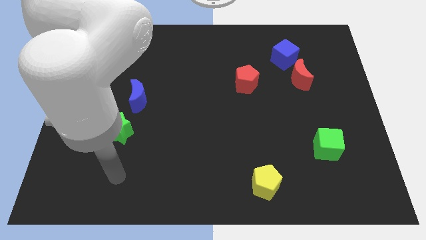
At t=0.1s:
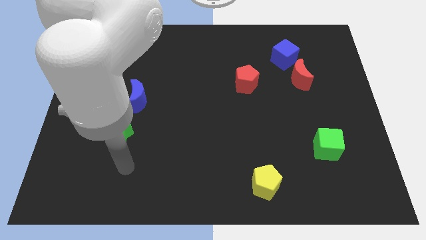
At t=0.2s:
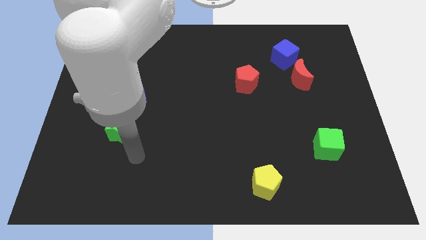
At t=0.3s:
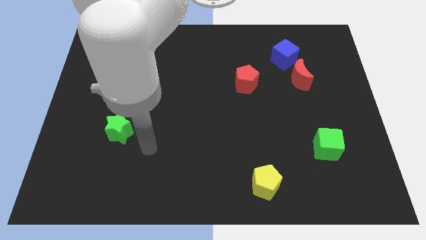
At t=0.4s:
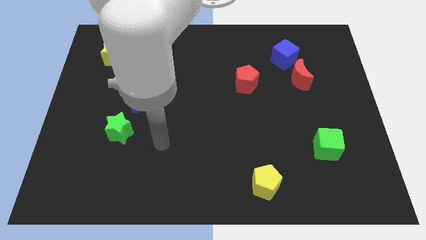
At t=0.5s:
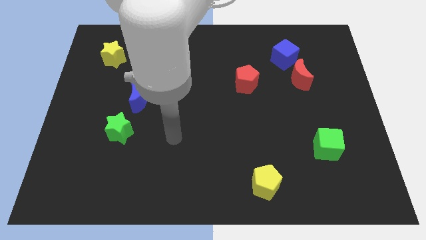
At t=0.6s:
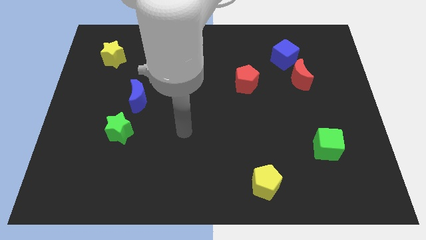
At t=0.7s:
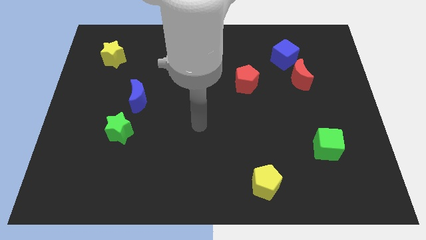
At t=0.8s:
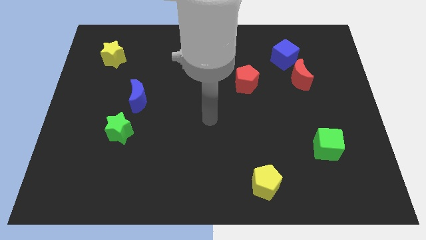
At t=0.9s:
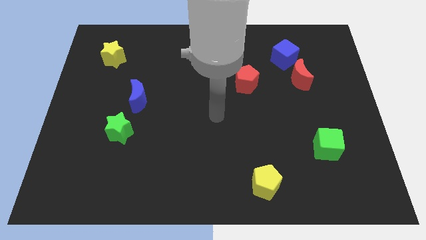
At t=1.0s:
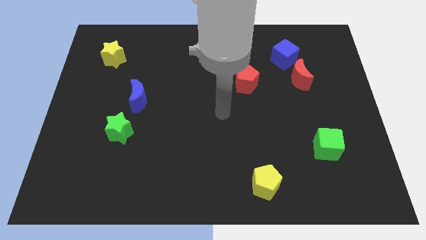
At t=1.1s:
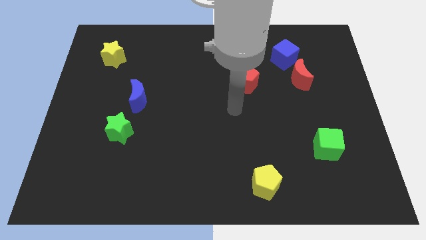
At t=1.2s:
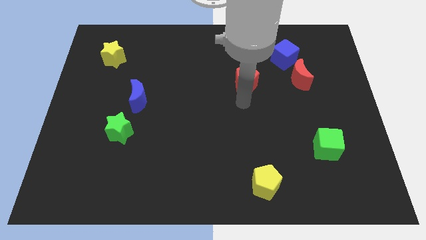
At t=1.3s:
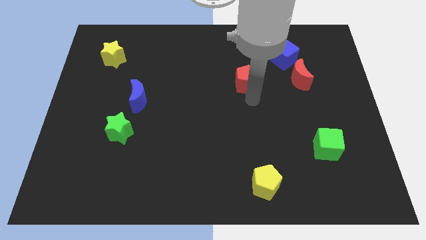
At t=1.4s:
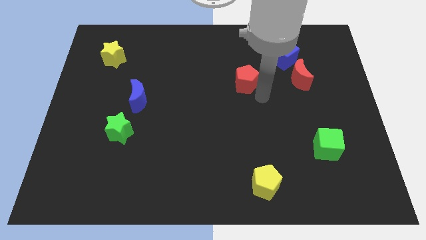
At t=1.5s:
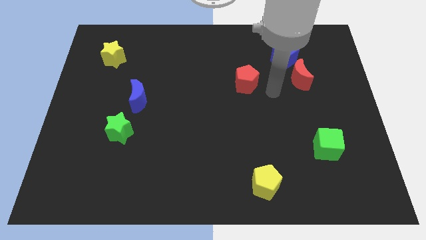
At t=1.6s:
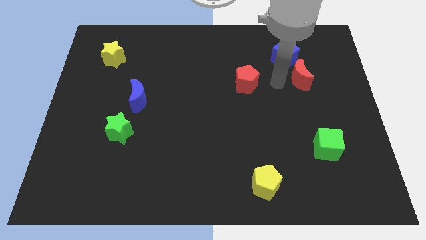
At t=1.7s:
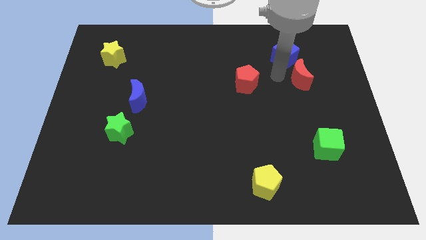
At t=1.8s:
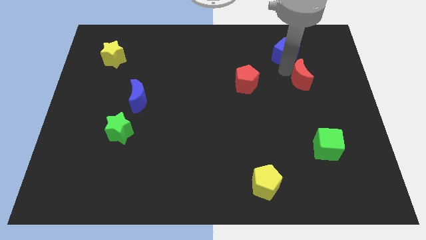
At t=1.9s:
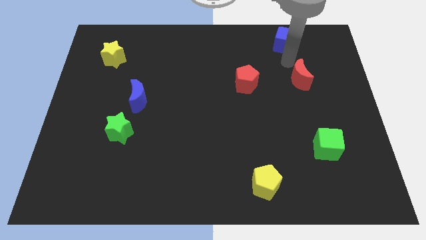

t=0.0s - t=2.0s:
move the red moon away from the blue cube

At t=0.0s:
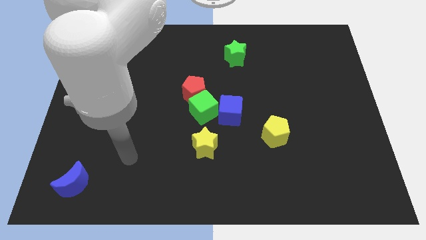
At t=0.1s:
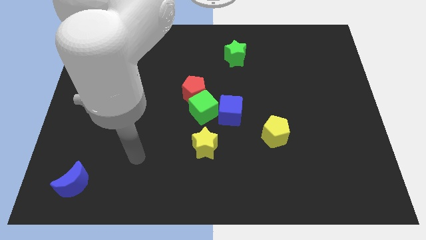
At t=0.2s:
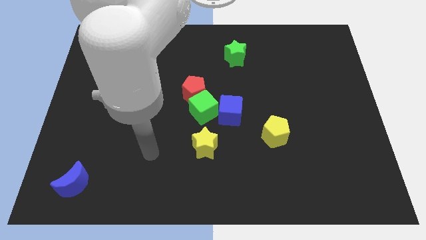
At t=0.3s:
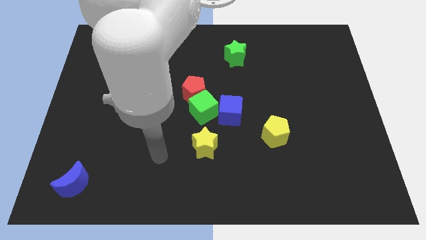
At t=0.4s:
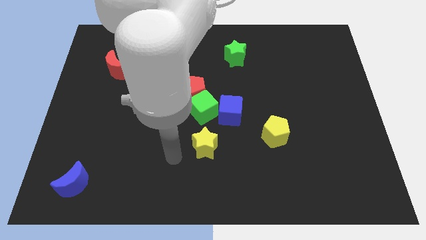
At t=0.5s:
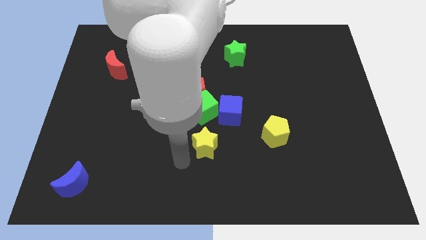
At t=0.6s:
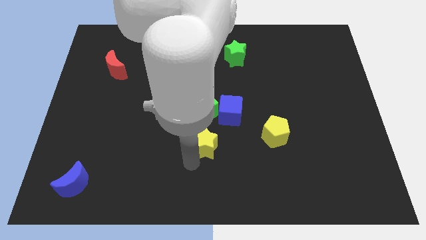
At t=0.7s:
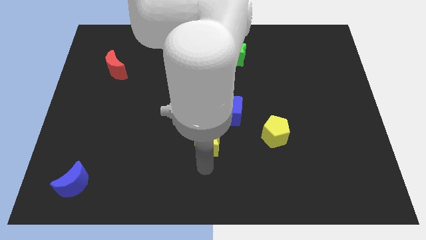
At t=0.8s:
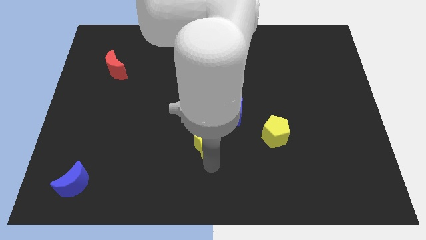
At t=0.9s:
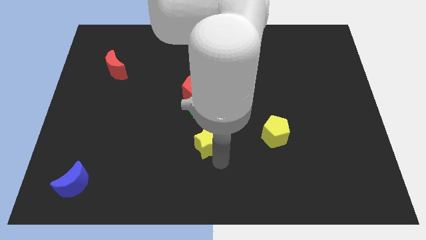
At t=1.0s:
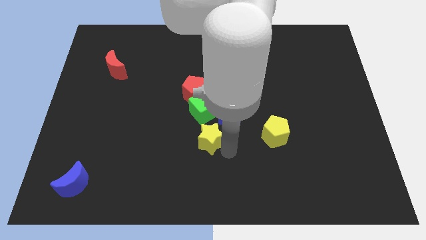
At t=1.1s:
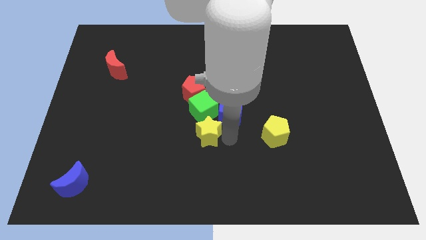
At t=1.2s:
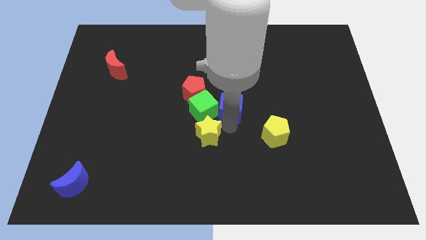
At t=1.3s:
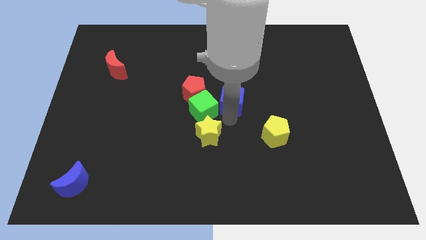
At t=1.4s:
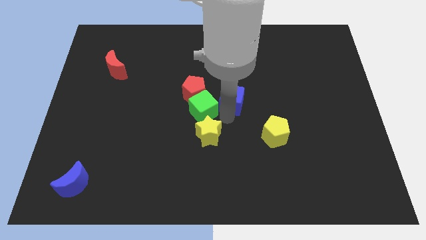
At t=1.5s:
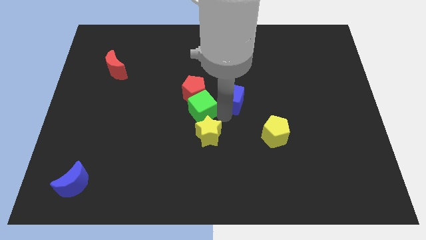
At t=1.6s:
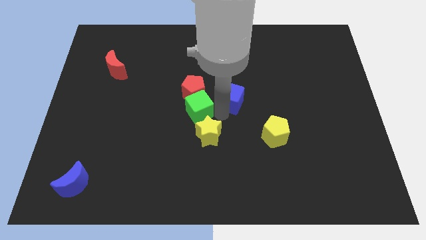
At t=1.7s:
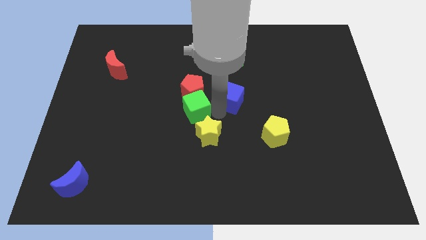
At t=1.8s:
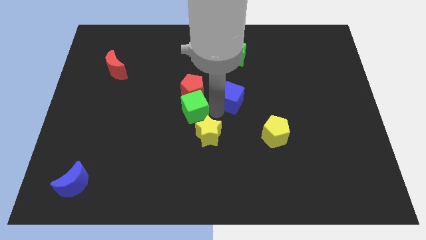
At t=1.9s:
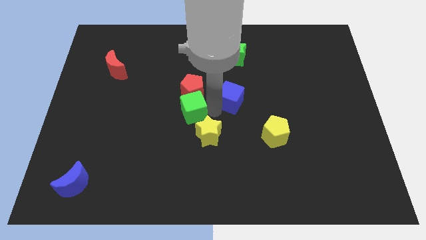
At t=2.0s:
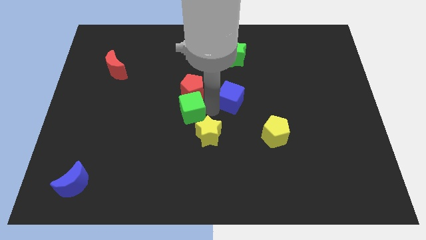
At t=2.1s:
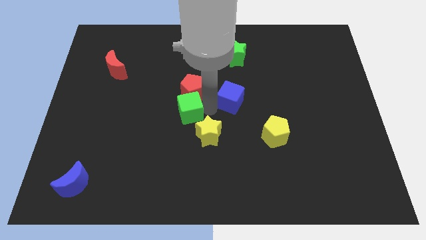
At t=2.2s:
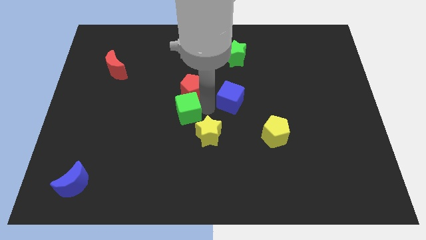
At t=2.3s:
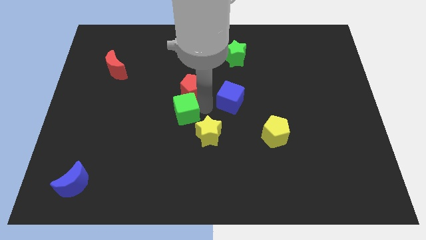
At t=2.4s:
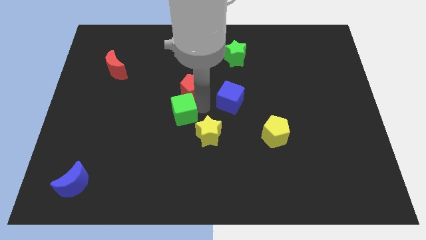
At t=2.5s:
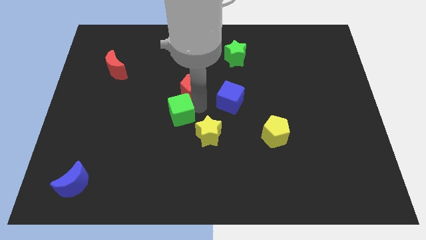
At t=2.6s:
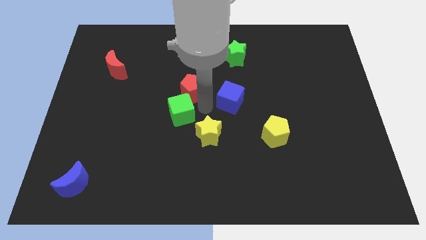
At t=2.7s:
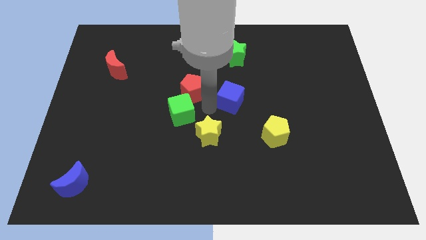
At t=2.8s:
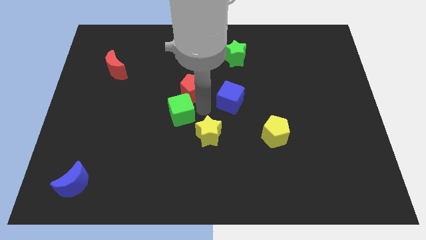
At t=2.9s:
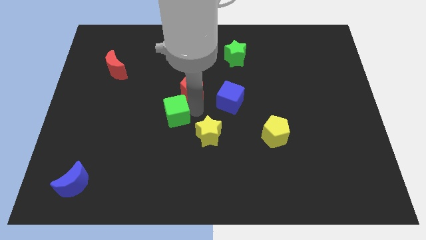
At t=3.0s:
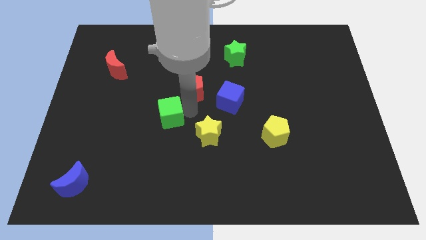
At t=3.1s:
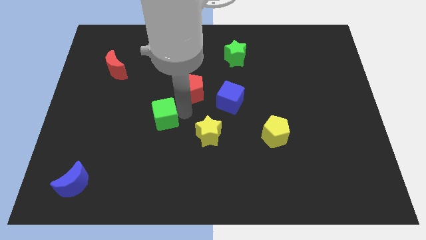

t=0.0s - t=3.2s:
move the green cube away from the group of blocks

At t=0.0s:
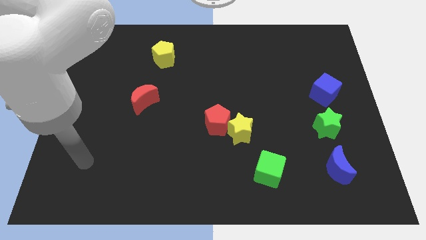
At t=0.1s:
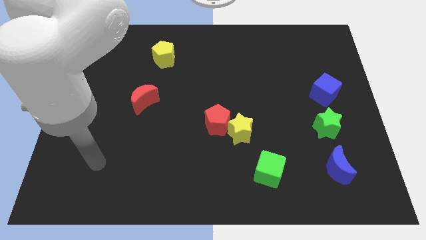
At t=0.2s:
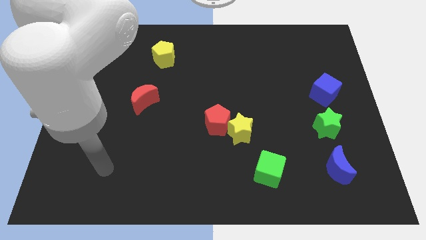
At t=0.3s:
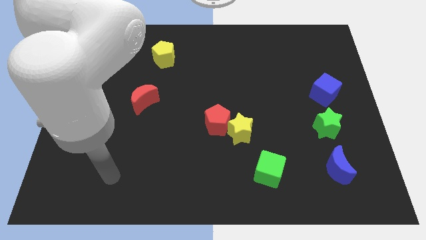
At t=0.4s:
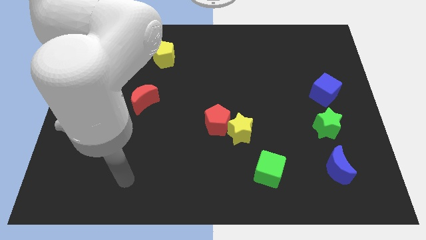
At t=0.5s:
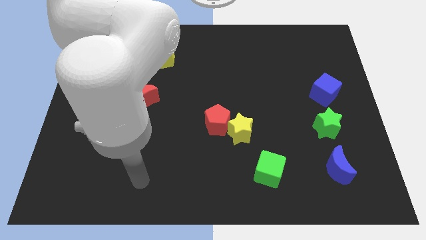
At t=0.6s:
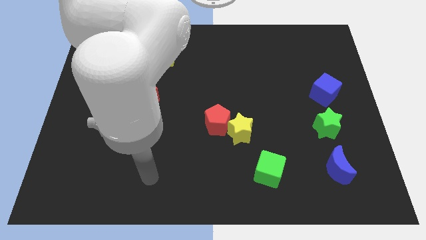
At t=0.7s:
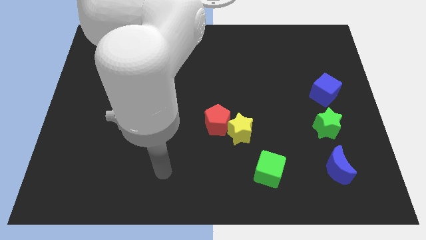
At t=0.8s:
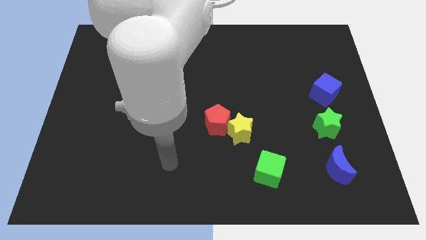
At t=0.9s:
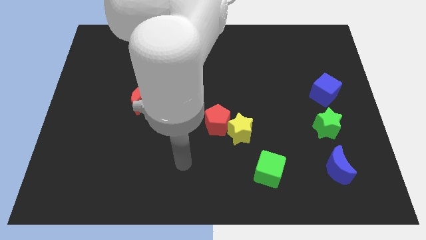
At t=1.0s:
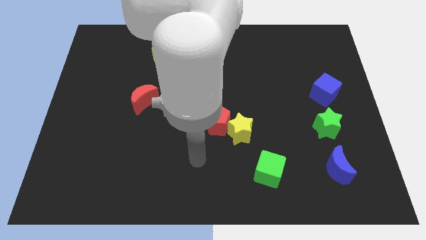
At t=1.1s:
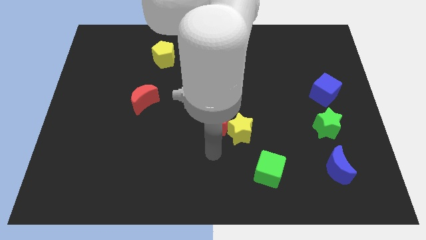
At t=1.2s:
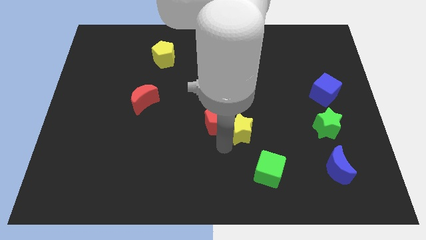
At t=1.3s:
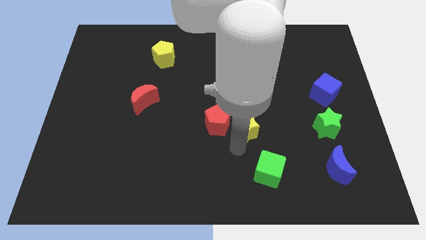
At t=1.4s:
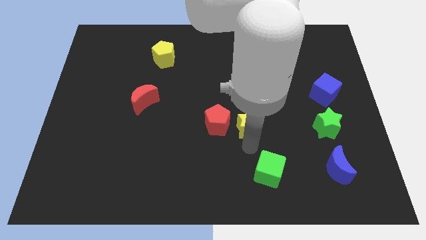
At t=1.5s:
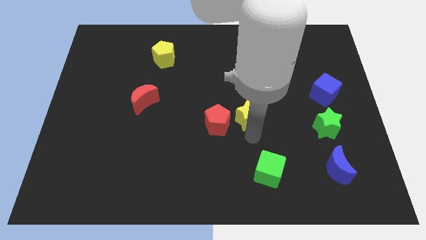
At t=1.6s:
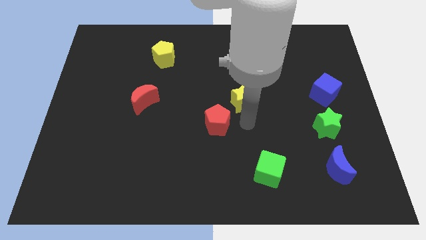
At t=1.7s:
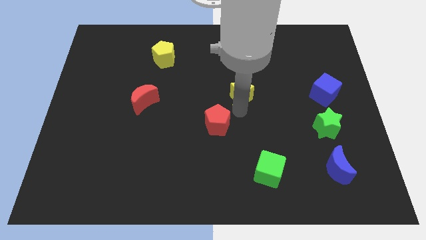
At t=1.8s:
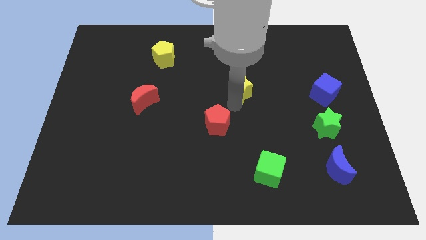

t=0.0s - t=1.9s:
pull the red pentagon apart from the yellow star

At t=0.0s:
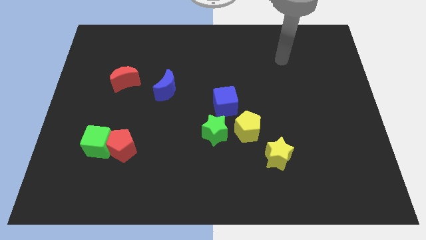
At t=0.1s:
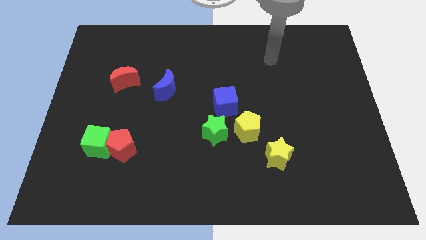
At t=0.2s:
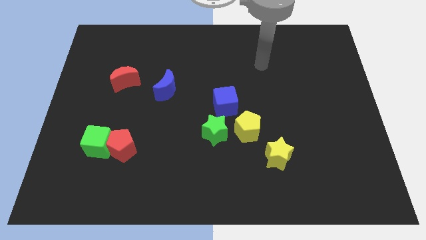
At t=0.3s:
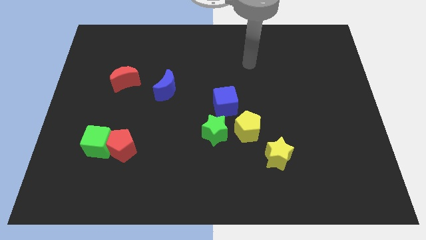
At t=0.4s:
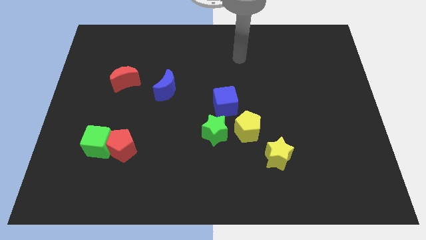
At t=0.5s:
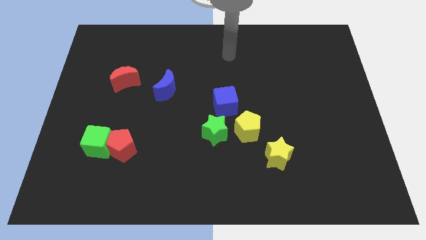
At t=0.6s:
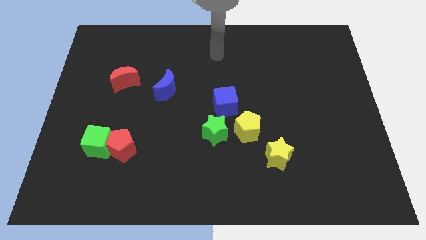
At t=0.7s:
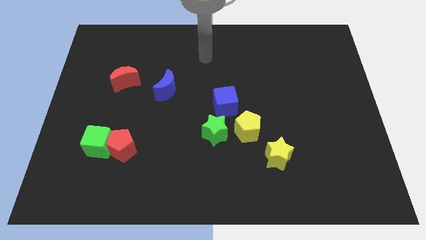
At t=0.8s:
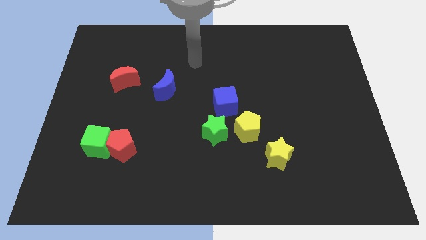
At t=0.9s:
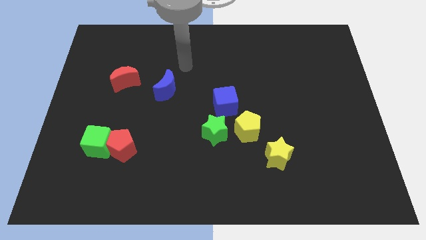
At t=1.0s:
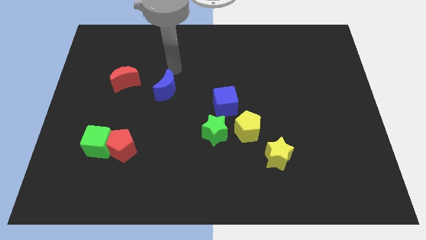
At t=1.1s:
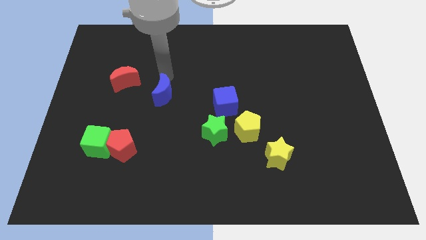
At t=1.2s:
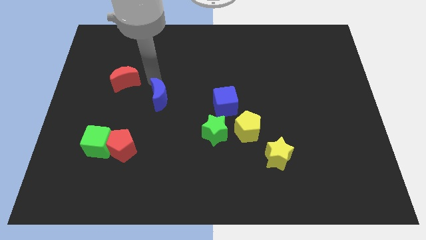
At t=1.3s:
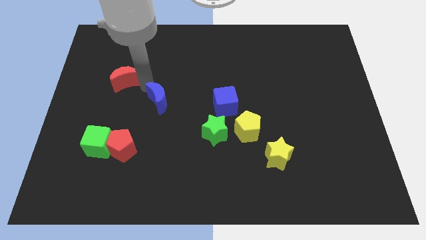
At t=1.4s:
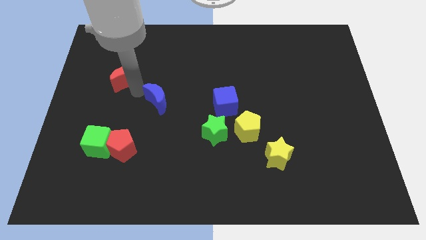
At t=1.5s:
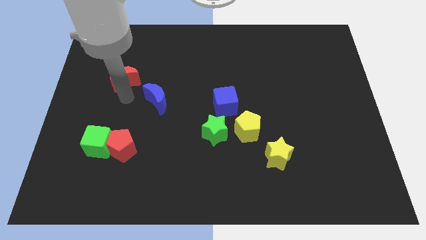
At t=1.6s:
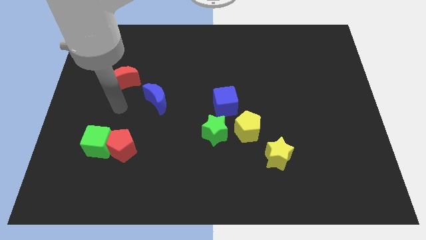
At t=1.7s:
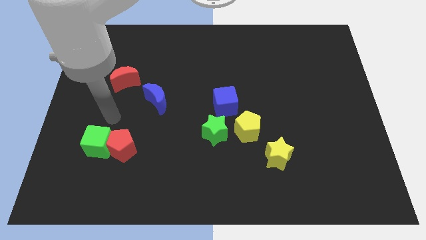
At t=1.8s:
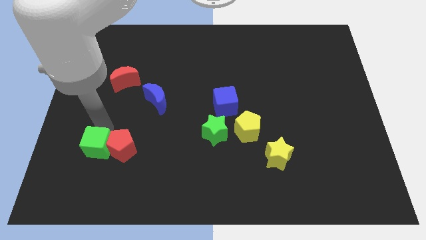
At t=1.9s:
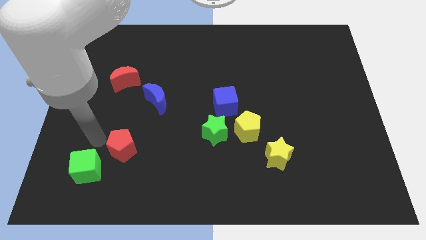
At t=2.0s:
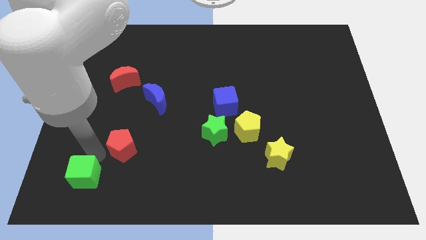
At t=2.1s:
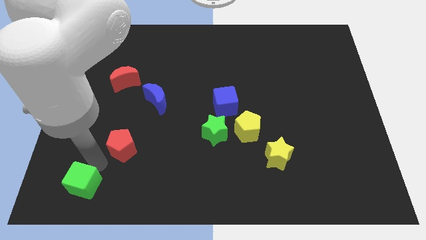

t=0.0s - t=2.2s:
move the red pentagon away from the green cube
